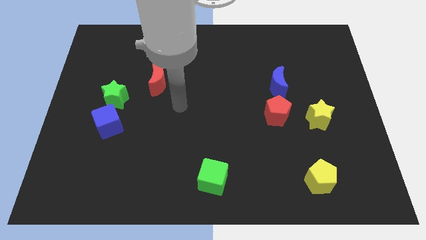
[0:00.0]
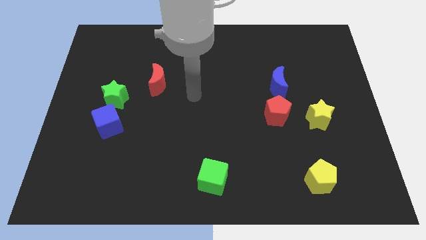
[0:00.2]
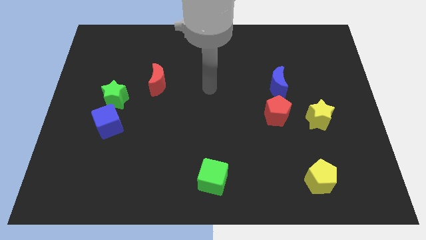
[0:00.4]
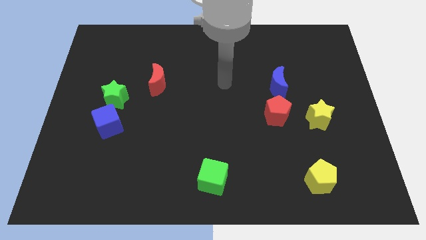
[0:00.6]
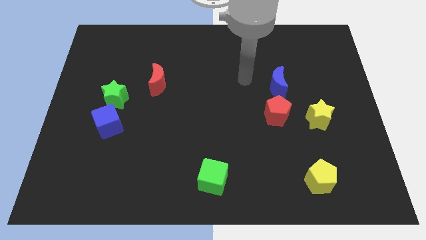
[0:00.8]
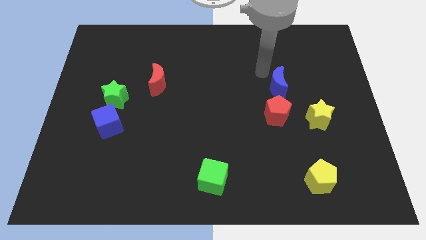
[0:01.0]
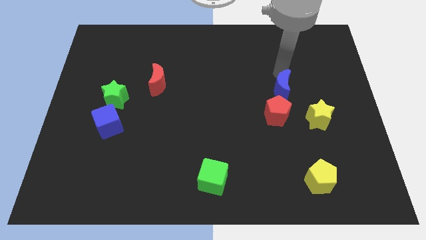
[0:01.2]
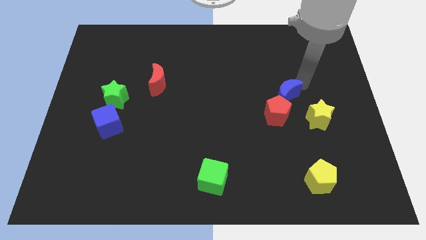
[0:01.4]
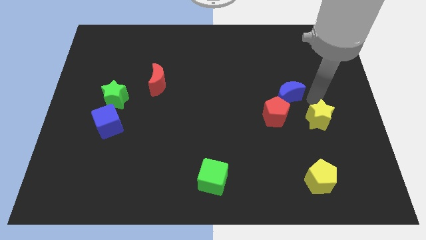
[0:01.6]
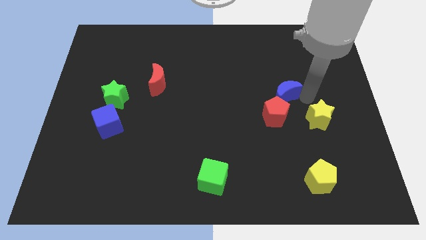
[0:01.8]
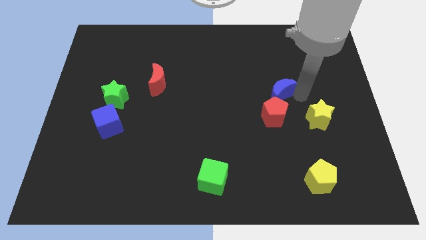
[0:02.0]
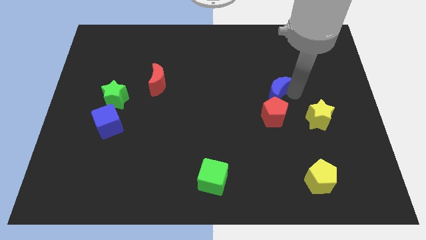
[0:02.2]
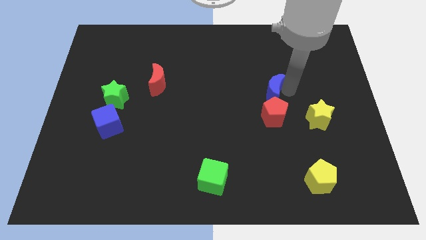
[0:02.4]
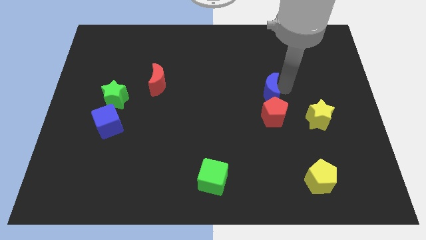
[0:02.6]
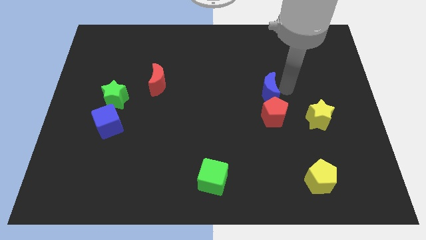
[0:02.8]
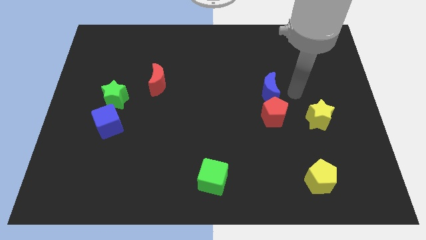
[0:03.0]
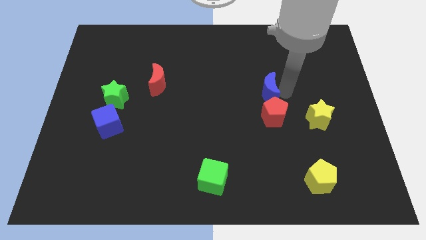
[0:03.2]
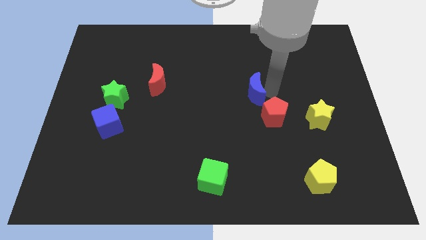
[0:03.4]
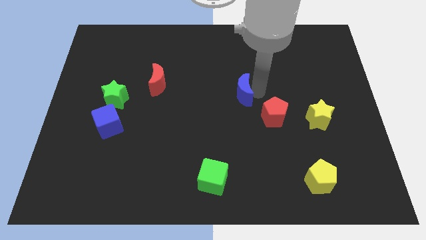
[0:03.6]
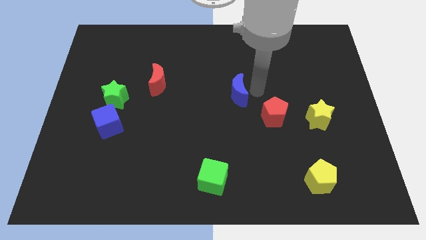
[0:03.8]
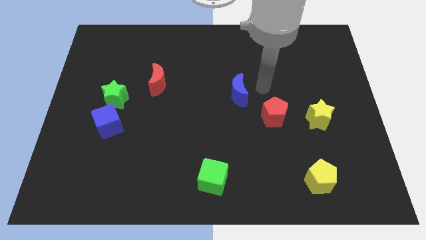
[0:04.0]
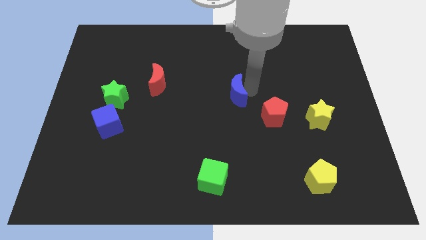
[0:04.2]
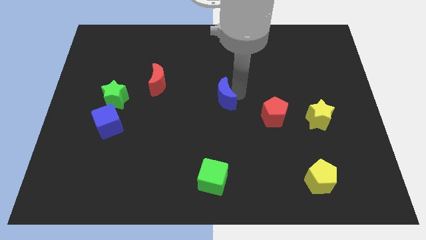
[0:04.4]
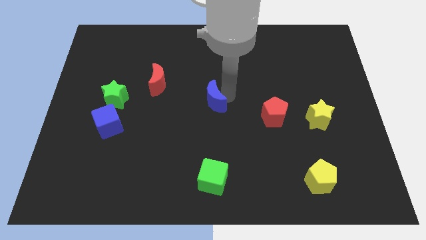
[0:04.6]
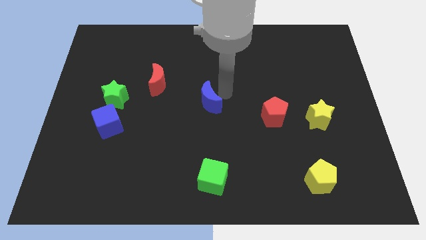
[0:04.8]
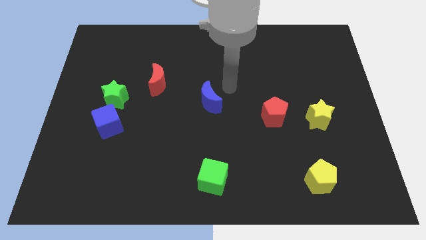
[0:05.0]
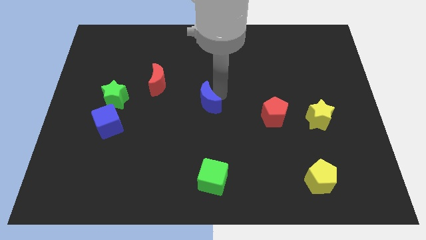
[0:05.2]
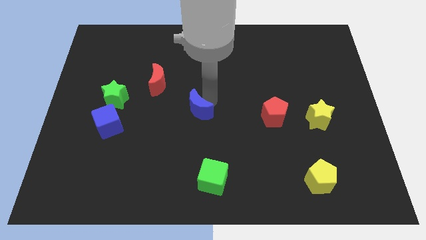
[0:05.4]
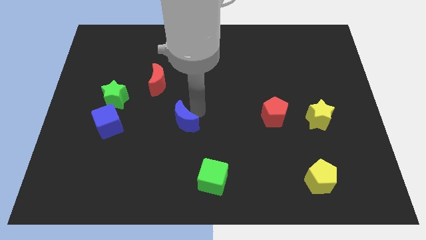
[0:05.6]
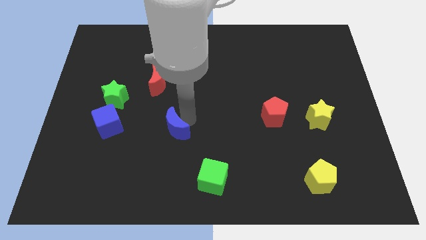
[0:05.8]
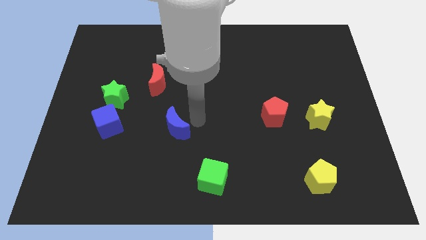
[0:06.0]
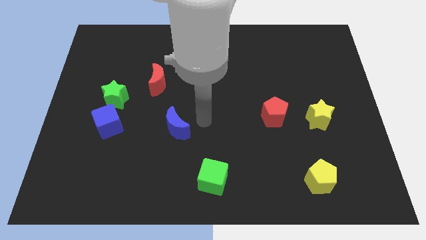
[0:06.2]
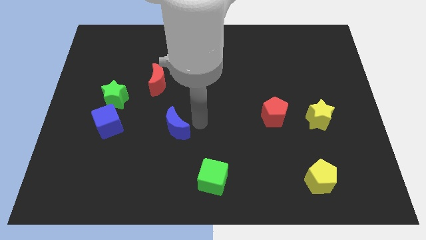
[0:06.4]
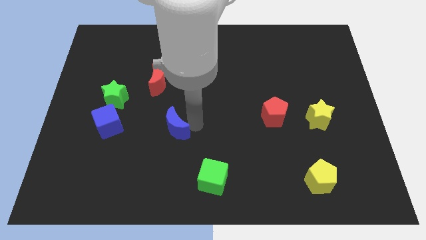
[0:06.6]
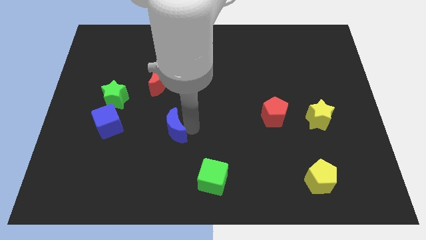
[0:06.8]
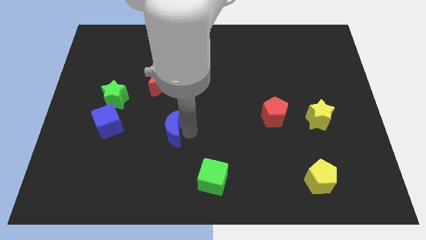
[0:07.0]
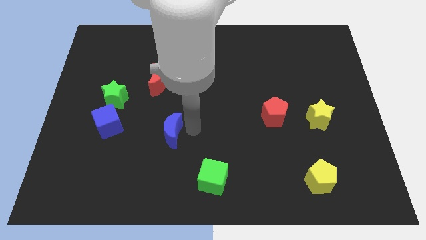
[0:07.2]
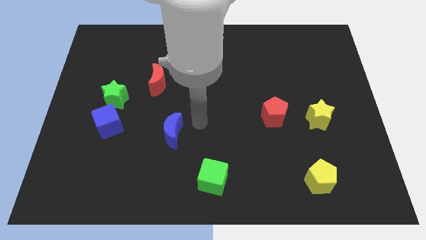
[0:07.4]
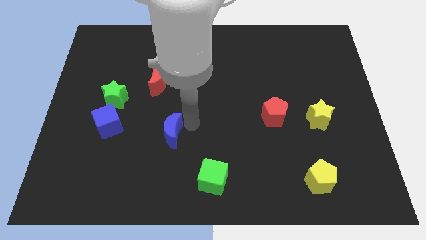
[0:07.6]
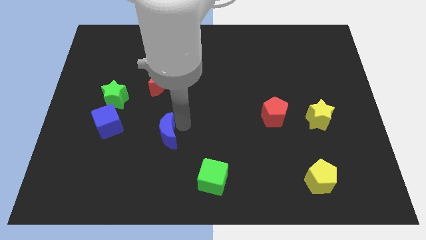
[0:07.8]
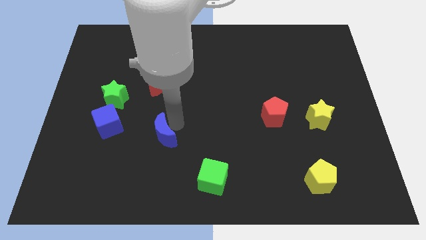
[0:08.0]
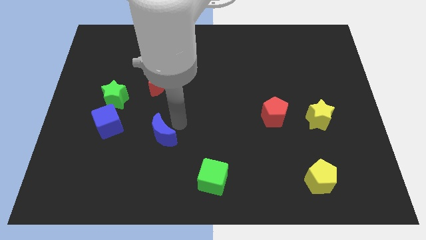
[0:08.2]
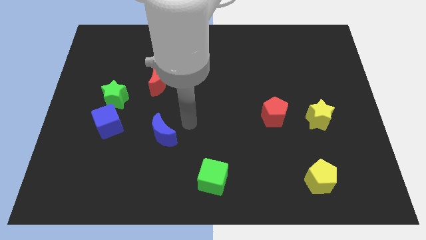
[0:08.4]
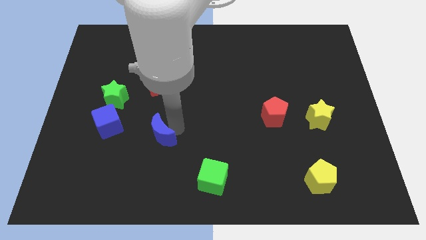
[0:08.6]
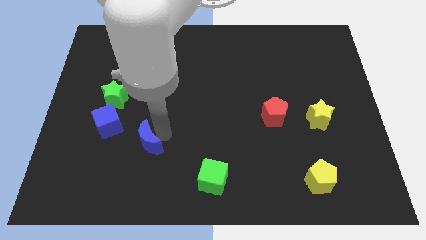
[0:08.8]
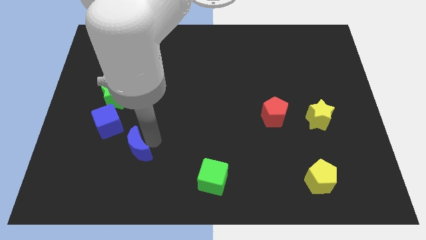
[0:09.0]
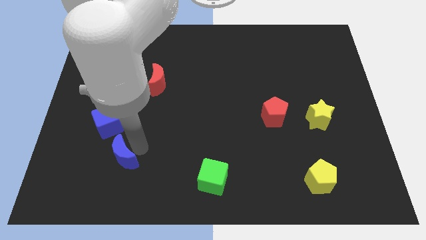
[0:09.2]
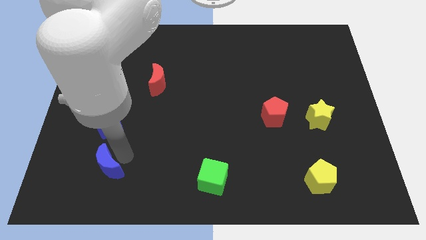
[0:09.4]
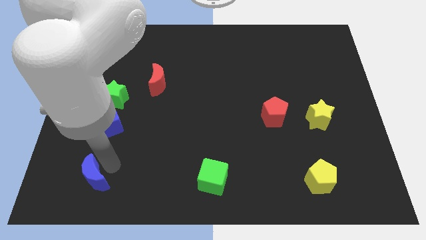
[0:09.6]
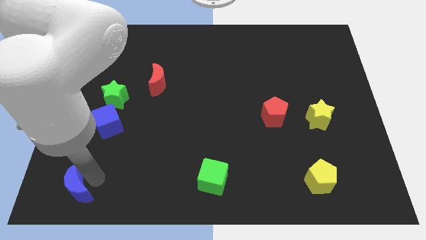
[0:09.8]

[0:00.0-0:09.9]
put the blue moon to the bottom left

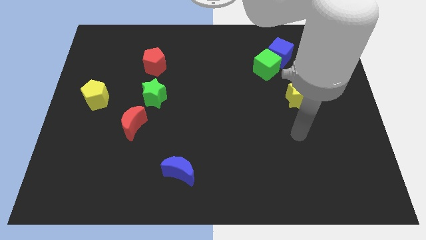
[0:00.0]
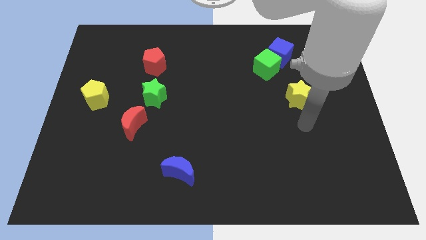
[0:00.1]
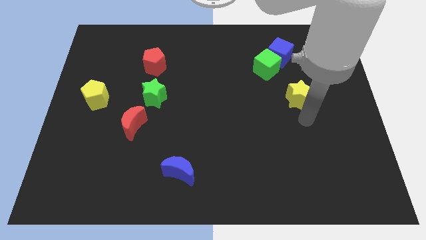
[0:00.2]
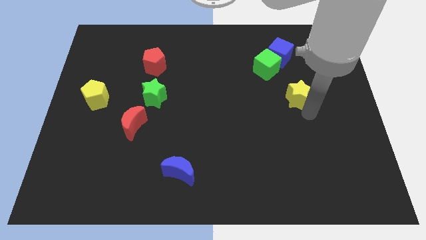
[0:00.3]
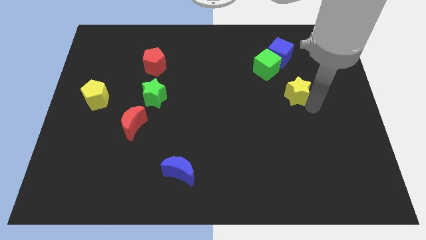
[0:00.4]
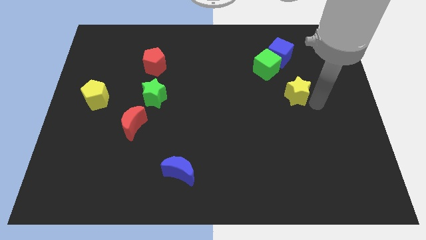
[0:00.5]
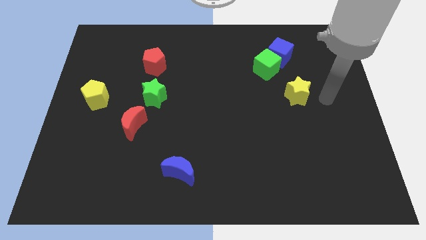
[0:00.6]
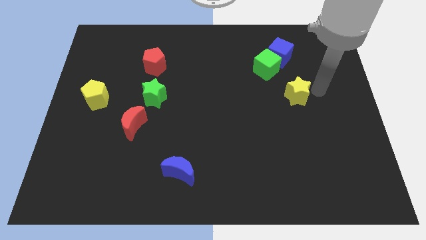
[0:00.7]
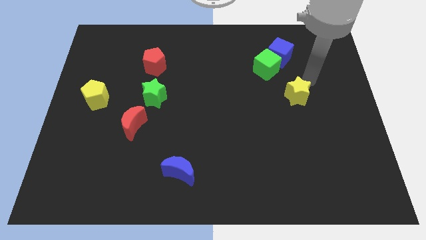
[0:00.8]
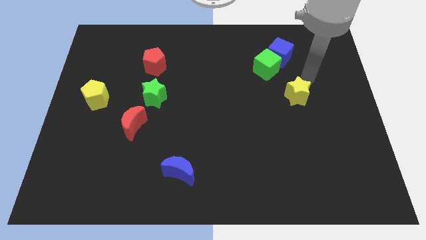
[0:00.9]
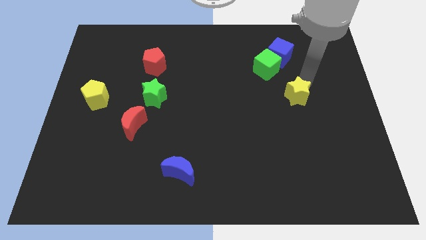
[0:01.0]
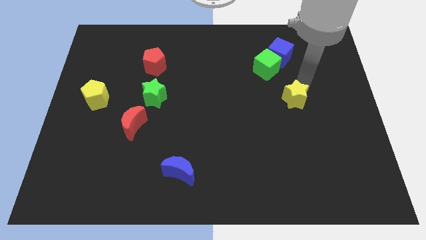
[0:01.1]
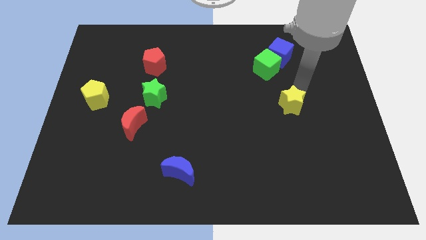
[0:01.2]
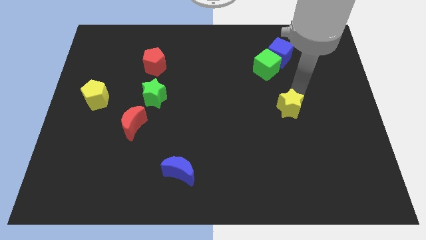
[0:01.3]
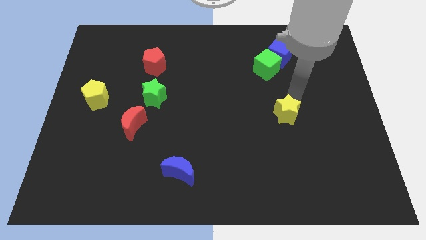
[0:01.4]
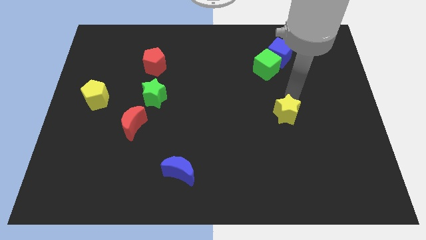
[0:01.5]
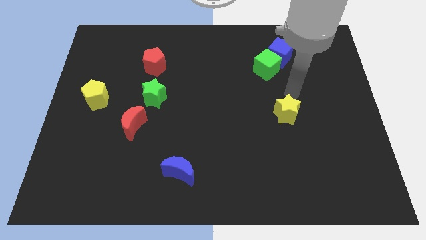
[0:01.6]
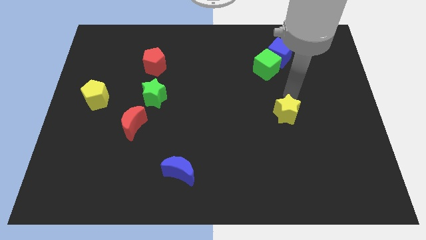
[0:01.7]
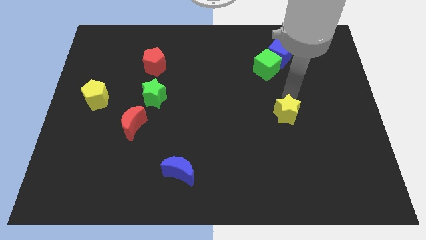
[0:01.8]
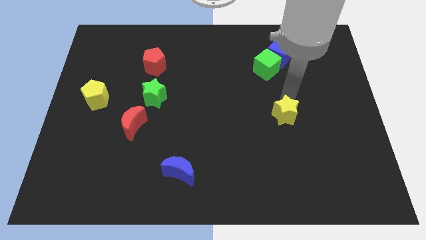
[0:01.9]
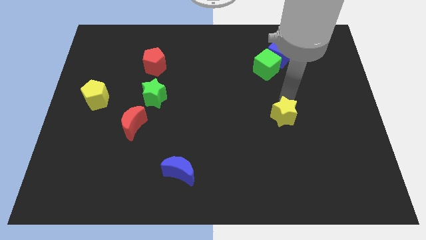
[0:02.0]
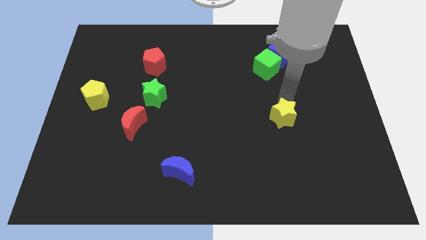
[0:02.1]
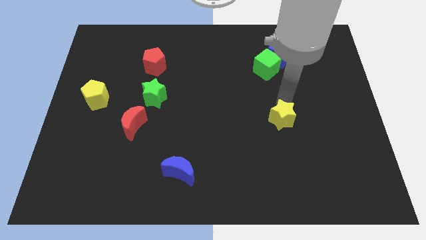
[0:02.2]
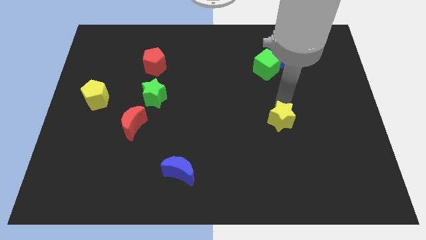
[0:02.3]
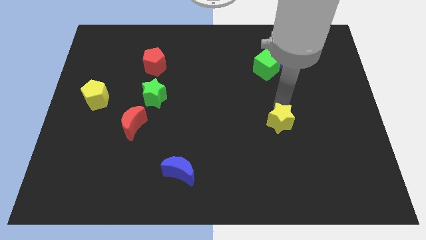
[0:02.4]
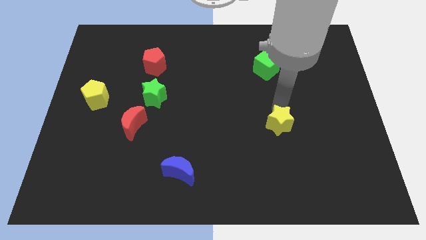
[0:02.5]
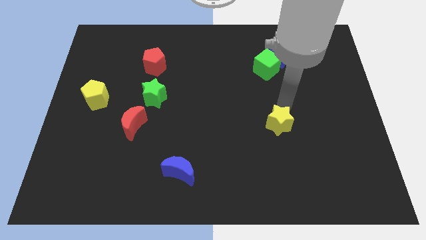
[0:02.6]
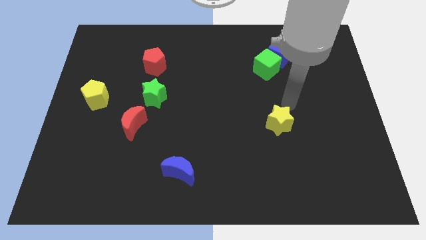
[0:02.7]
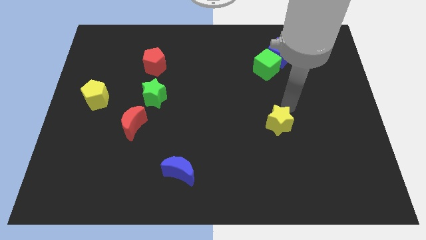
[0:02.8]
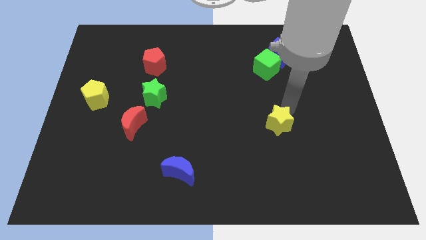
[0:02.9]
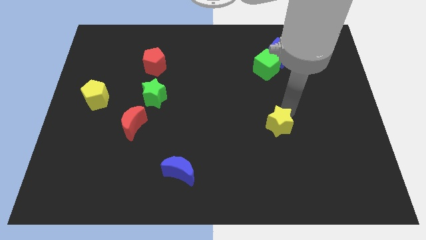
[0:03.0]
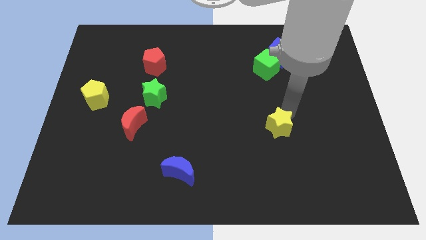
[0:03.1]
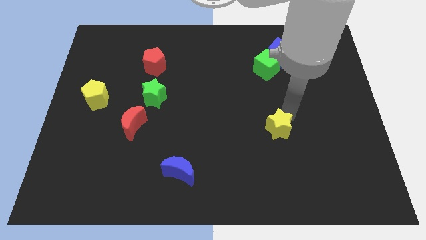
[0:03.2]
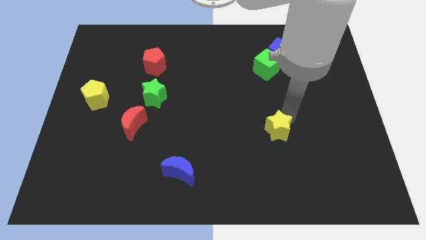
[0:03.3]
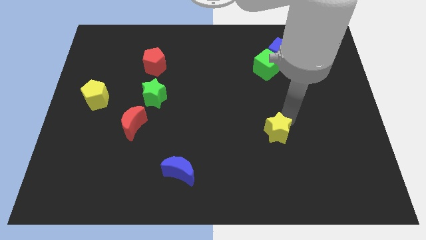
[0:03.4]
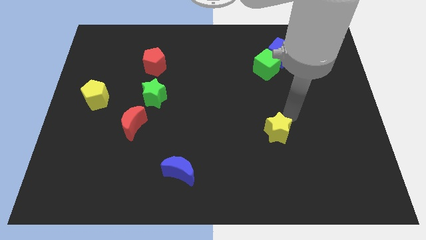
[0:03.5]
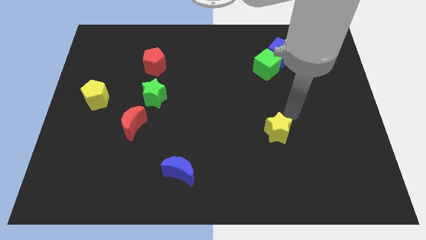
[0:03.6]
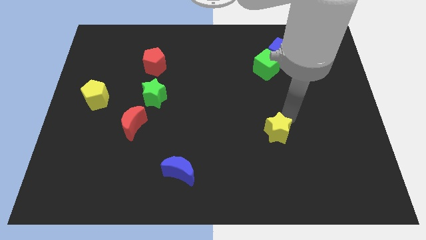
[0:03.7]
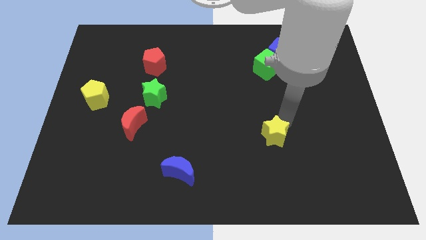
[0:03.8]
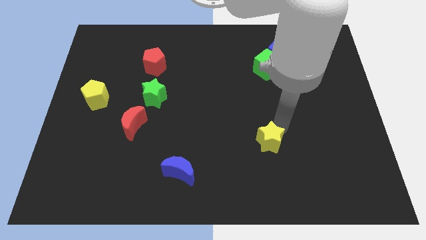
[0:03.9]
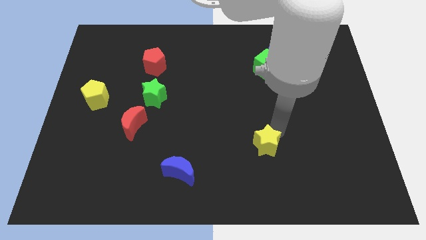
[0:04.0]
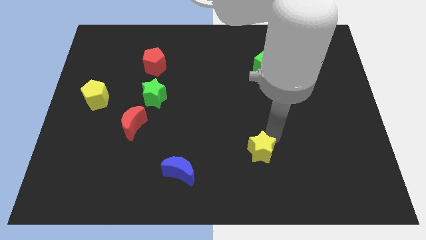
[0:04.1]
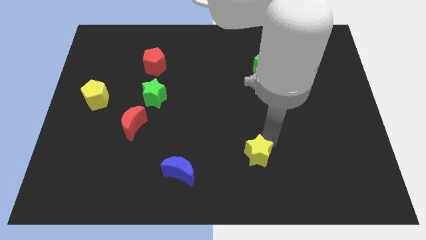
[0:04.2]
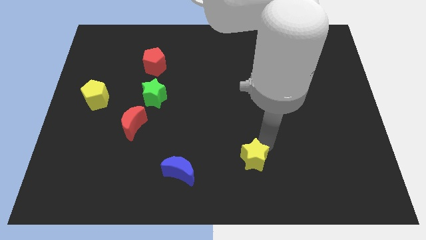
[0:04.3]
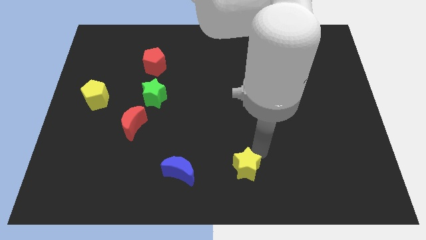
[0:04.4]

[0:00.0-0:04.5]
push the yellow star to the bottom
